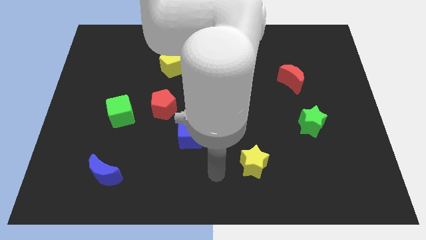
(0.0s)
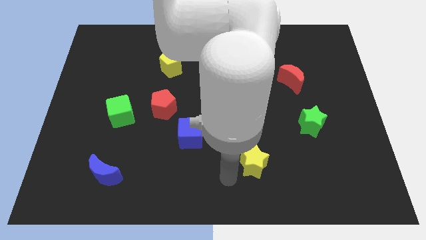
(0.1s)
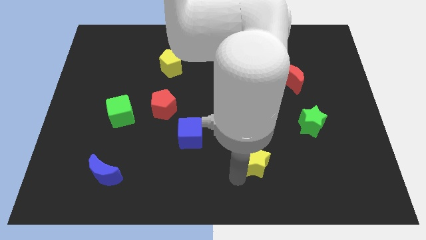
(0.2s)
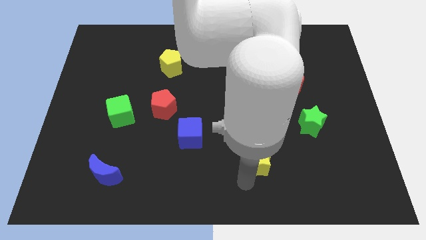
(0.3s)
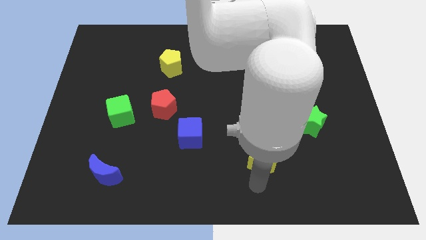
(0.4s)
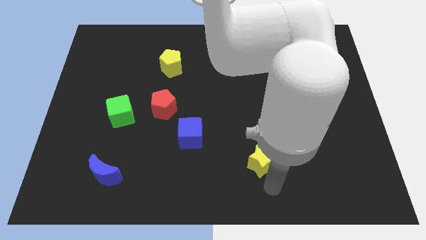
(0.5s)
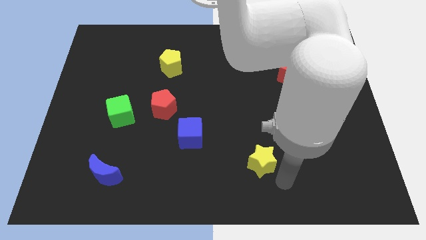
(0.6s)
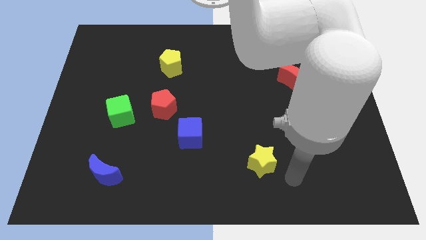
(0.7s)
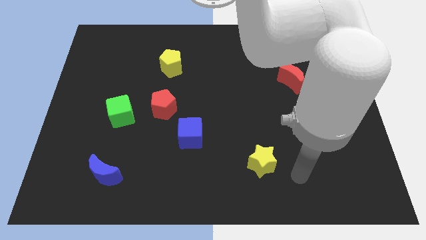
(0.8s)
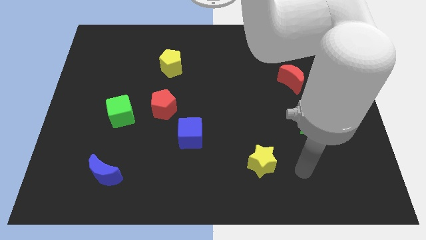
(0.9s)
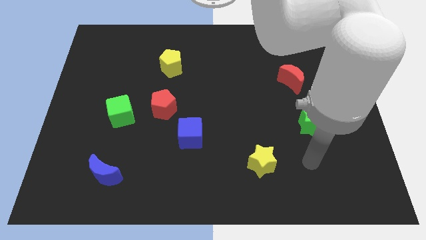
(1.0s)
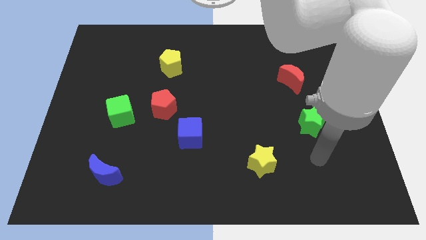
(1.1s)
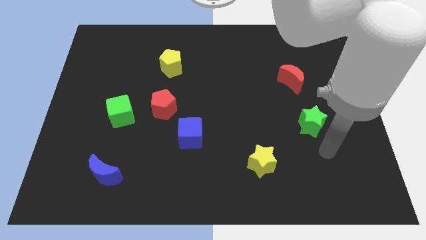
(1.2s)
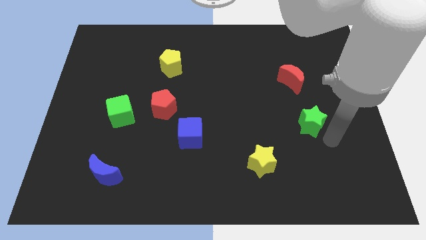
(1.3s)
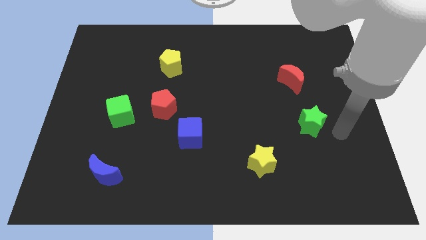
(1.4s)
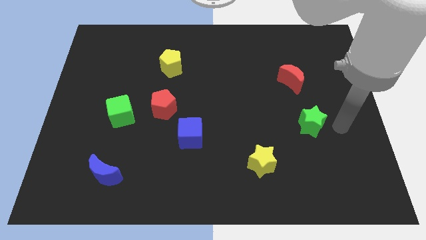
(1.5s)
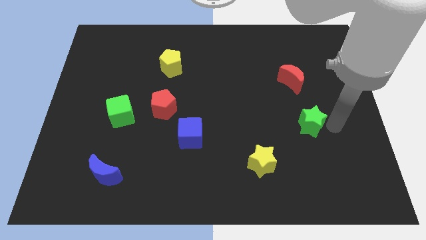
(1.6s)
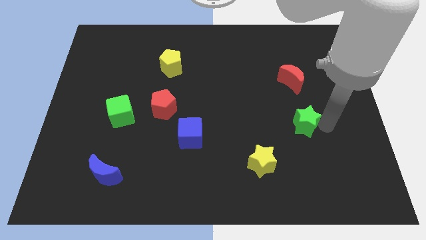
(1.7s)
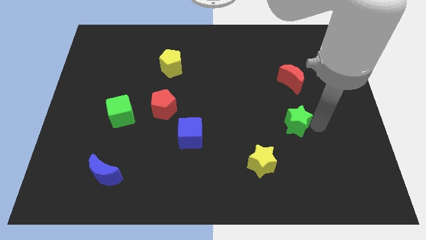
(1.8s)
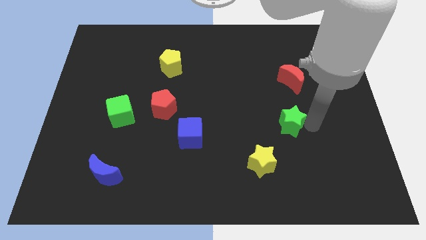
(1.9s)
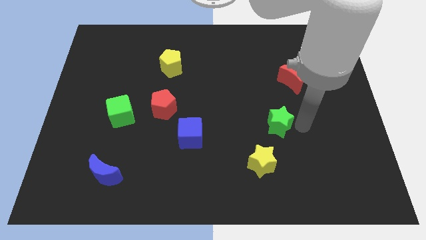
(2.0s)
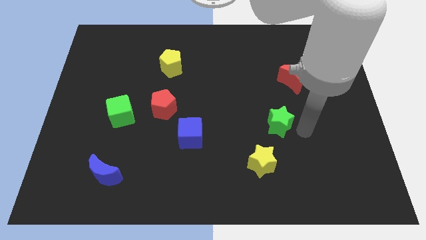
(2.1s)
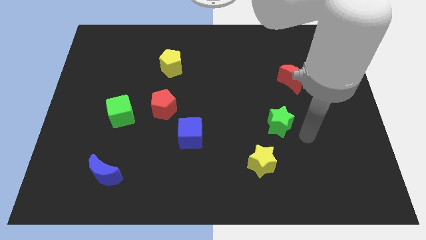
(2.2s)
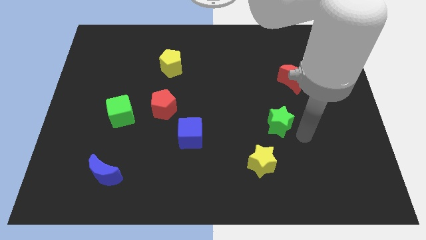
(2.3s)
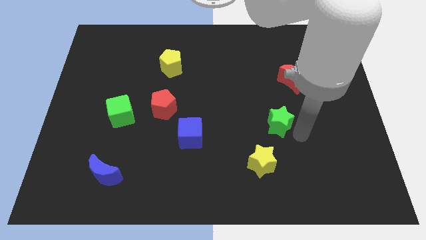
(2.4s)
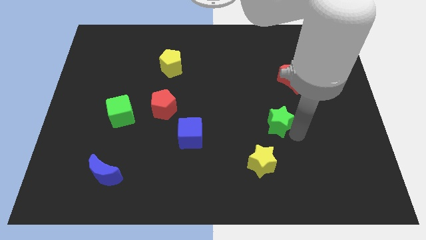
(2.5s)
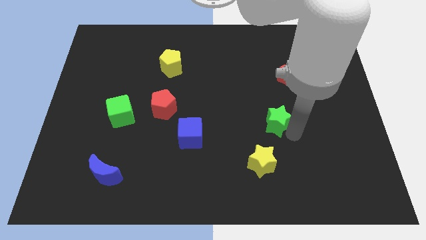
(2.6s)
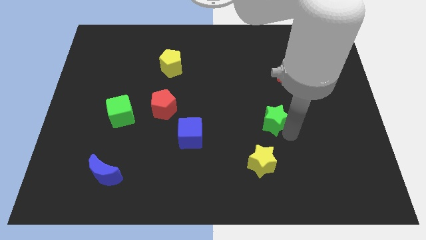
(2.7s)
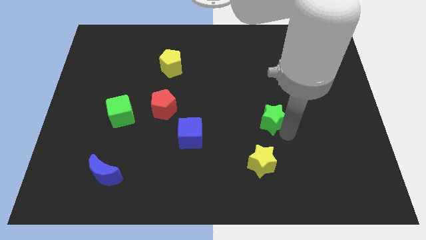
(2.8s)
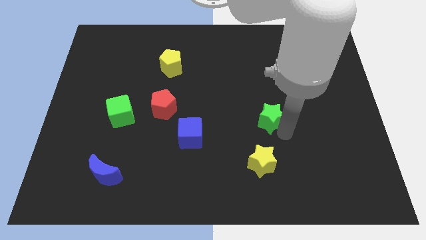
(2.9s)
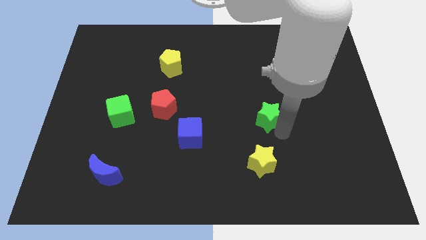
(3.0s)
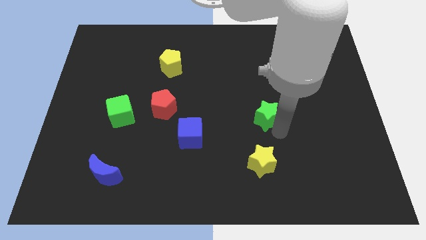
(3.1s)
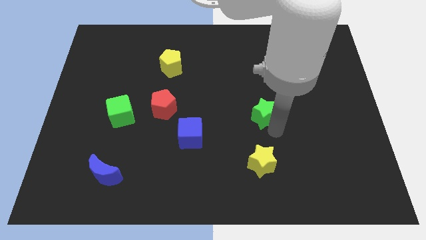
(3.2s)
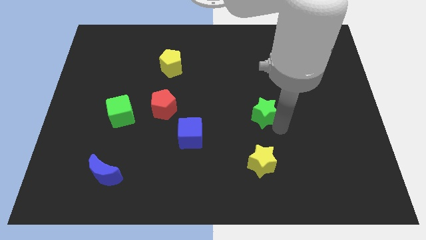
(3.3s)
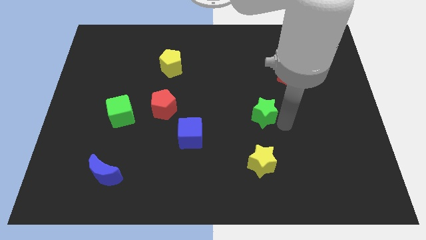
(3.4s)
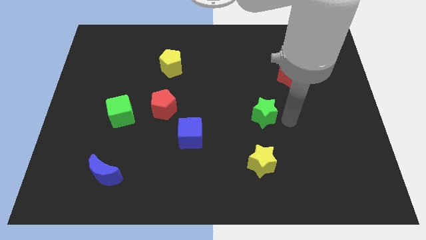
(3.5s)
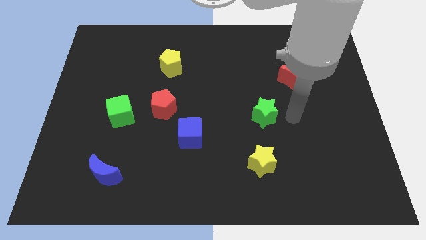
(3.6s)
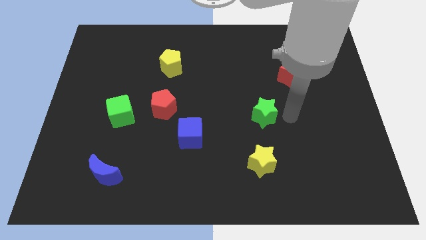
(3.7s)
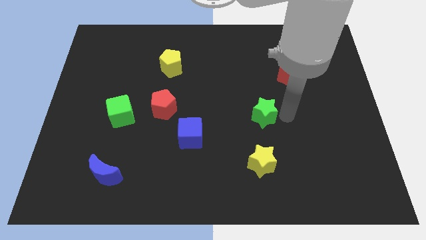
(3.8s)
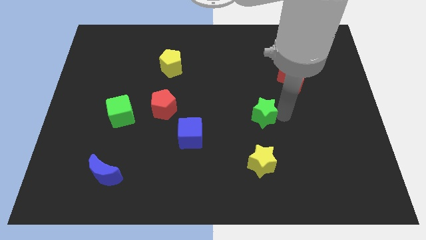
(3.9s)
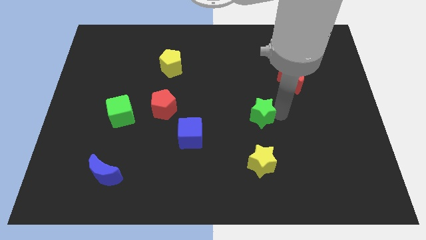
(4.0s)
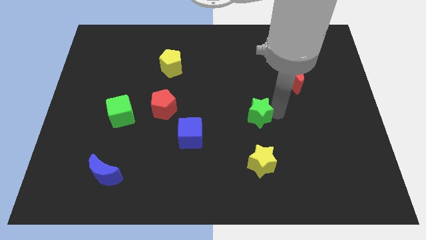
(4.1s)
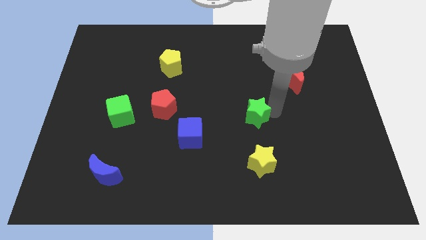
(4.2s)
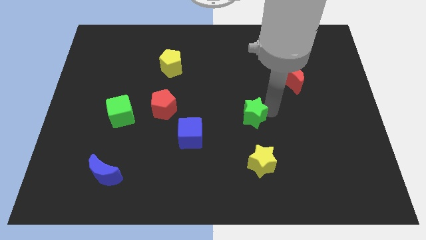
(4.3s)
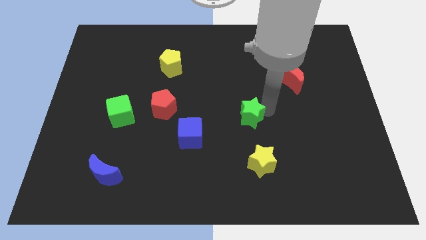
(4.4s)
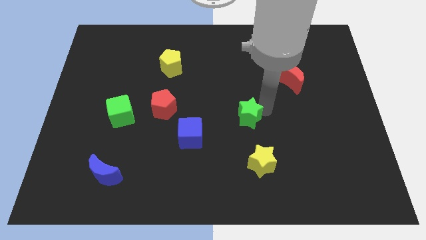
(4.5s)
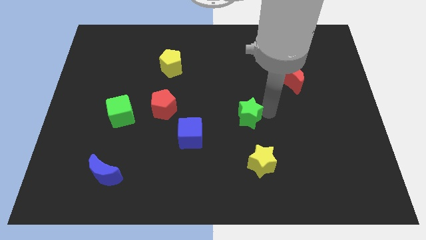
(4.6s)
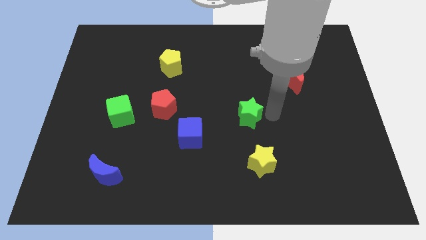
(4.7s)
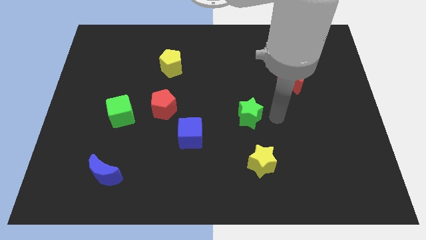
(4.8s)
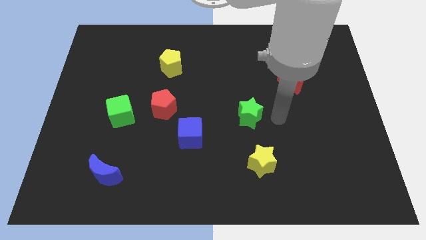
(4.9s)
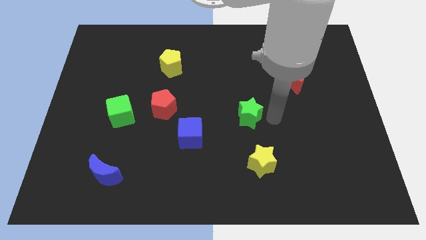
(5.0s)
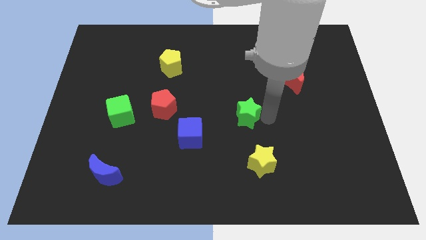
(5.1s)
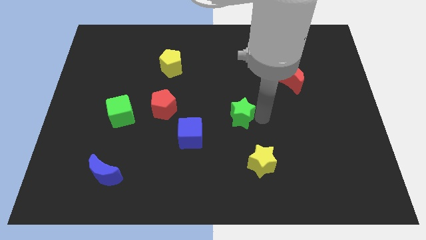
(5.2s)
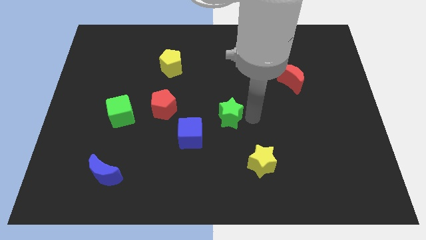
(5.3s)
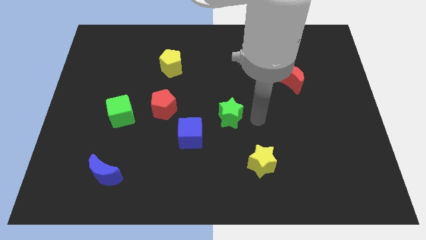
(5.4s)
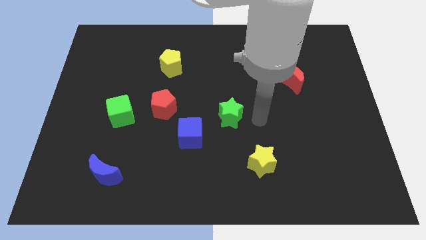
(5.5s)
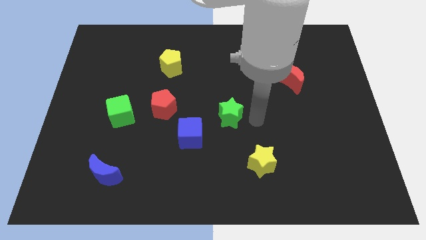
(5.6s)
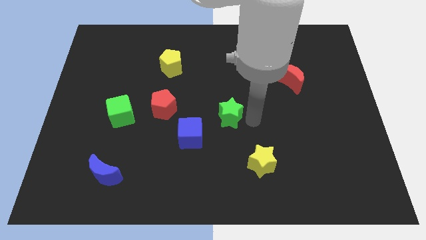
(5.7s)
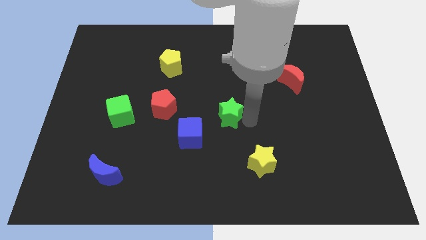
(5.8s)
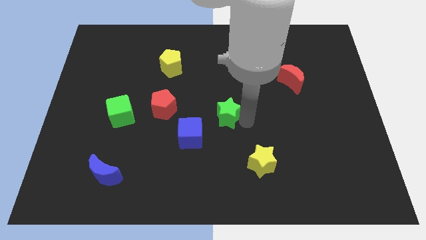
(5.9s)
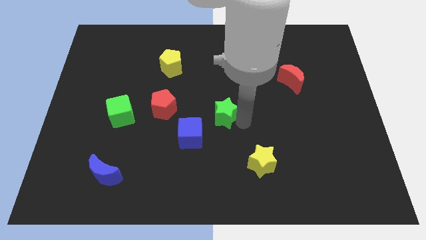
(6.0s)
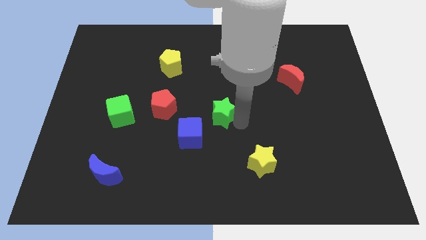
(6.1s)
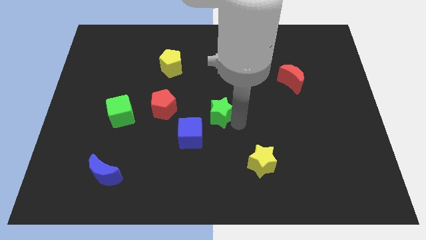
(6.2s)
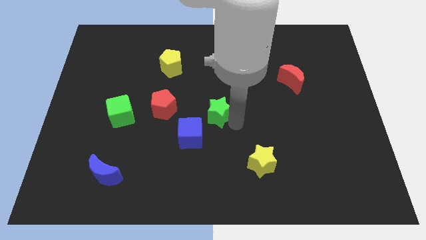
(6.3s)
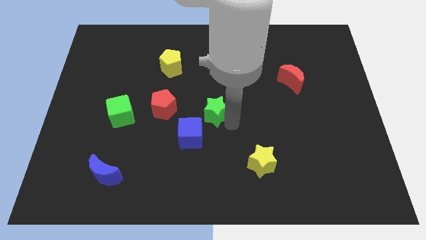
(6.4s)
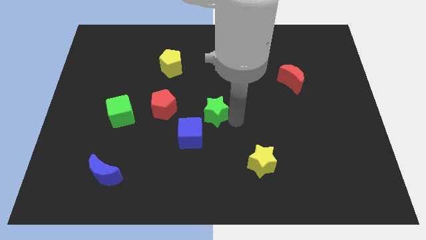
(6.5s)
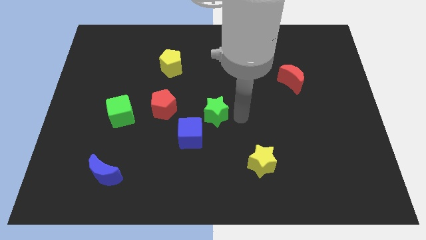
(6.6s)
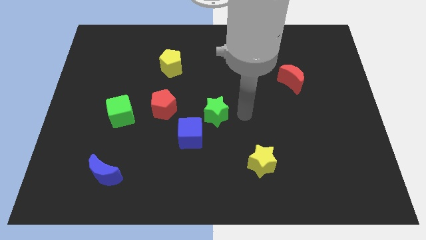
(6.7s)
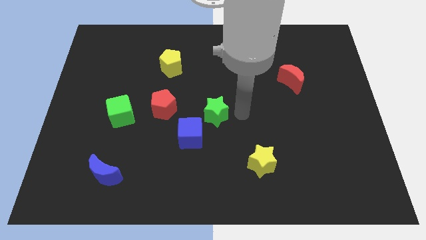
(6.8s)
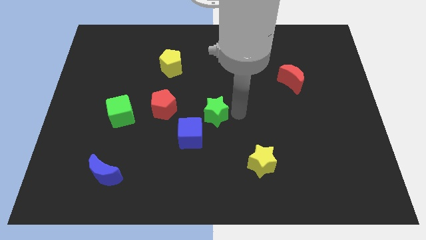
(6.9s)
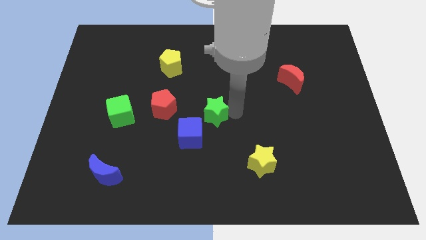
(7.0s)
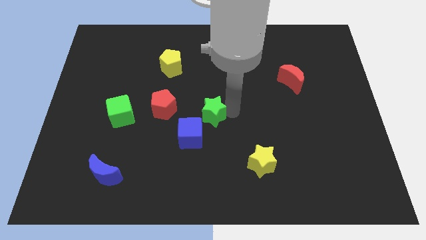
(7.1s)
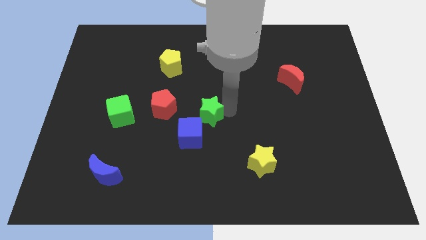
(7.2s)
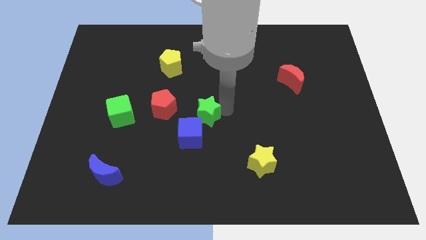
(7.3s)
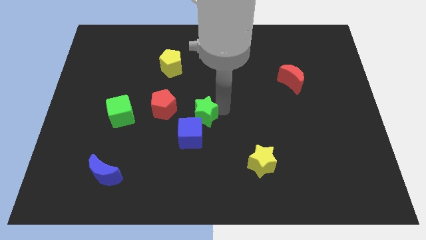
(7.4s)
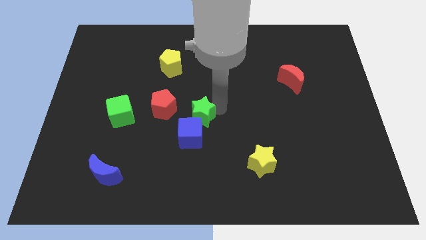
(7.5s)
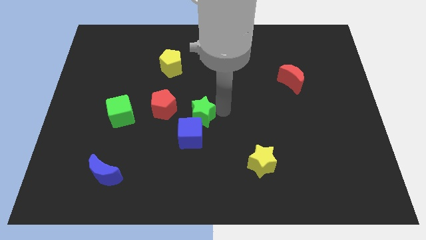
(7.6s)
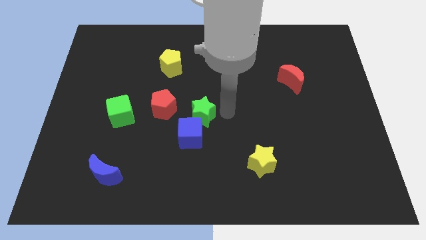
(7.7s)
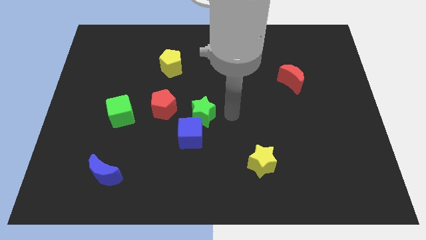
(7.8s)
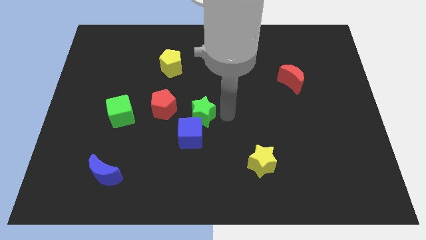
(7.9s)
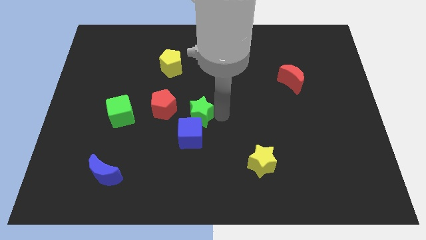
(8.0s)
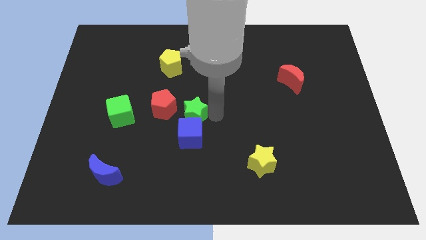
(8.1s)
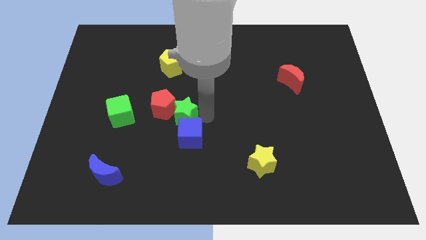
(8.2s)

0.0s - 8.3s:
put the green star close to the red pentagon
